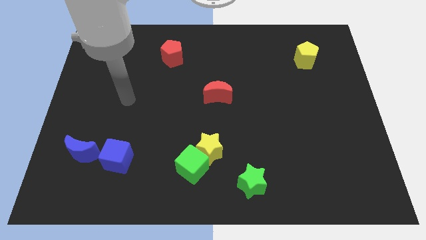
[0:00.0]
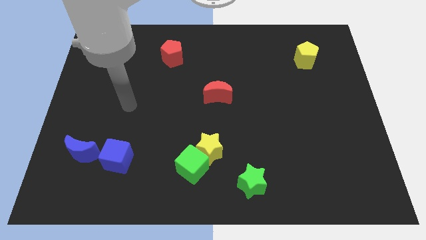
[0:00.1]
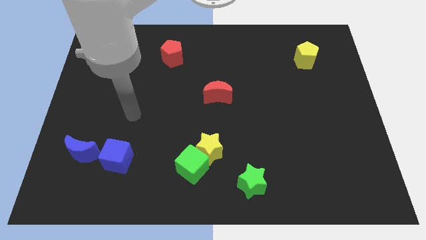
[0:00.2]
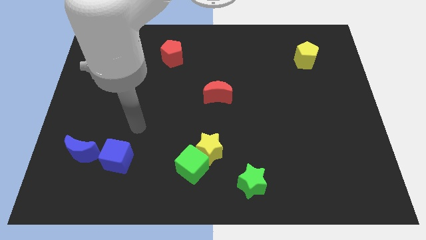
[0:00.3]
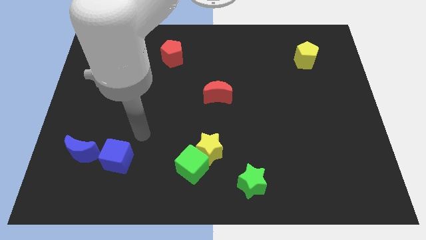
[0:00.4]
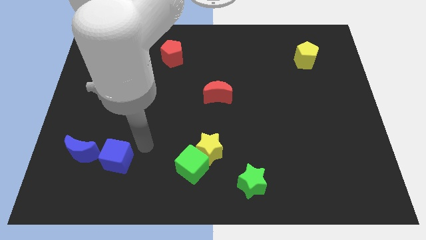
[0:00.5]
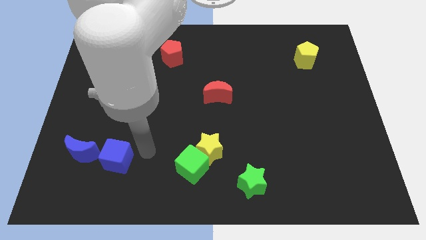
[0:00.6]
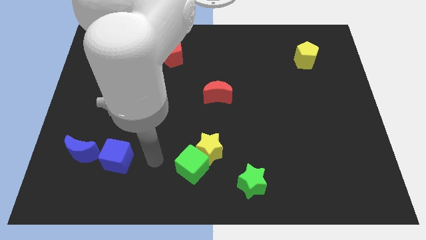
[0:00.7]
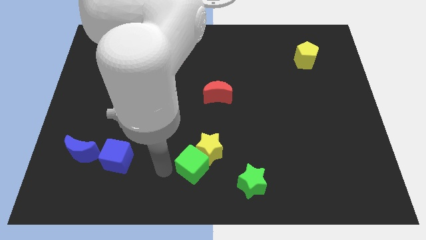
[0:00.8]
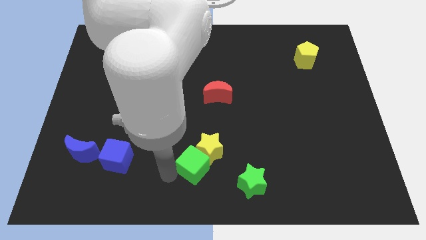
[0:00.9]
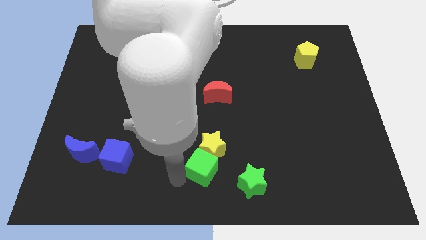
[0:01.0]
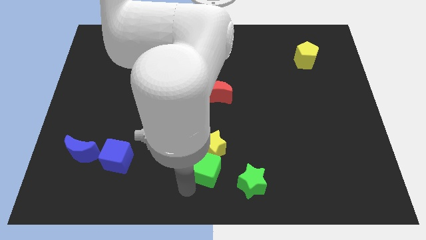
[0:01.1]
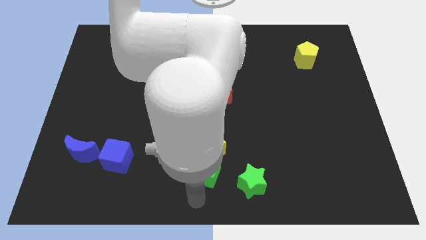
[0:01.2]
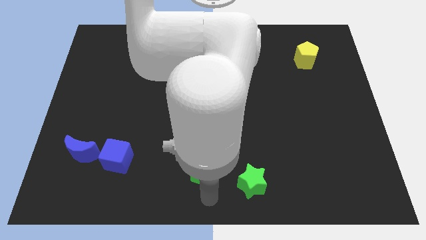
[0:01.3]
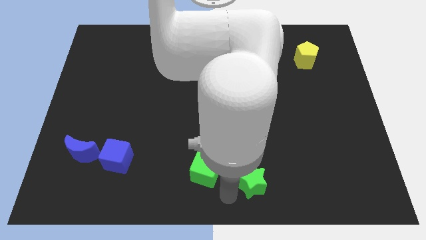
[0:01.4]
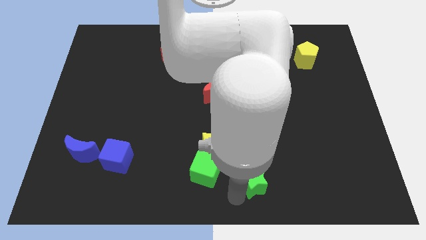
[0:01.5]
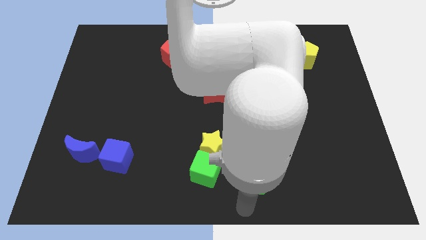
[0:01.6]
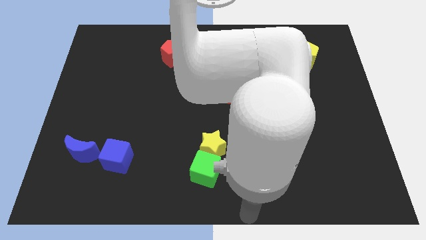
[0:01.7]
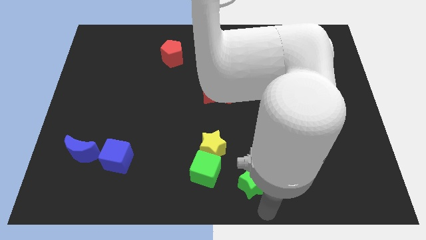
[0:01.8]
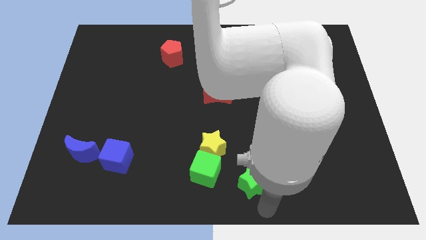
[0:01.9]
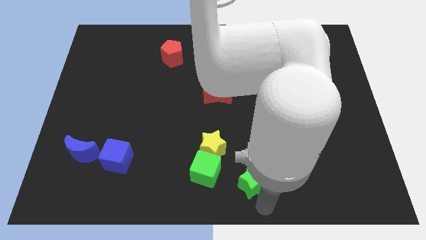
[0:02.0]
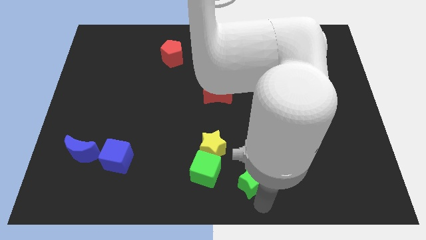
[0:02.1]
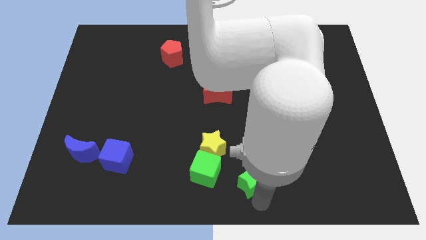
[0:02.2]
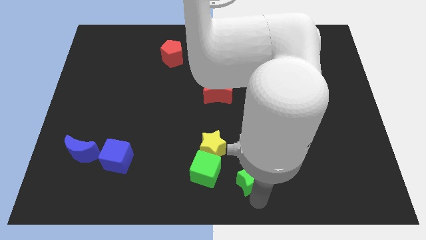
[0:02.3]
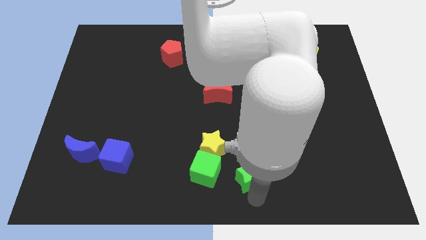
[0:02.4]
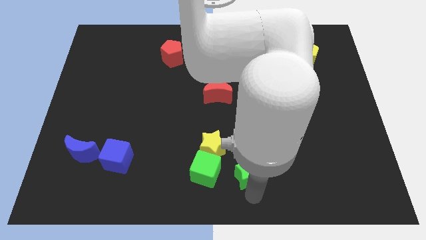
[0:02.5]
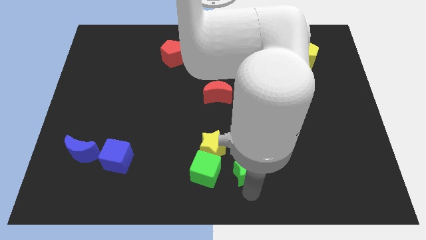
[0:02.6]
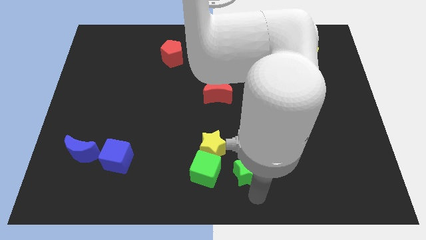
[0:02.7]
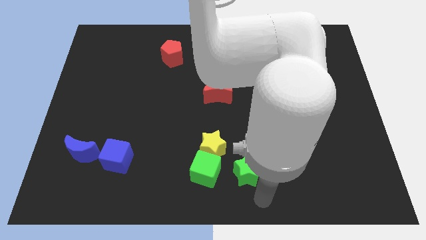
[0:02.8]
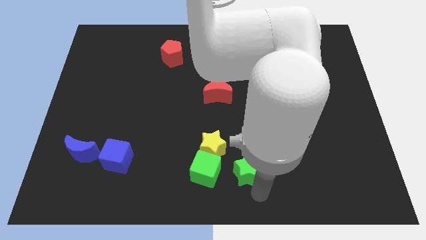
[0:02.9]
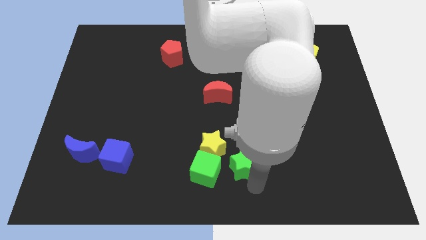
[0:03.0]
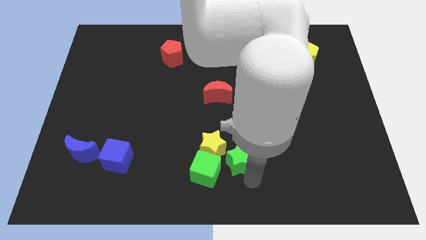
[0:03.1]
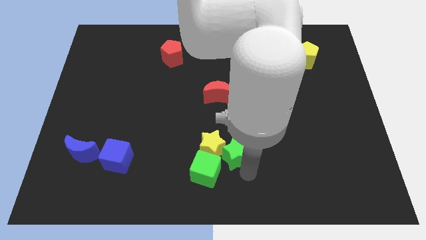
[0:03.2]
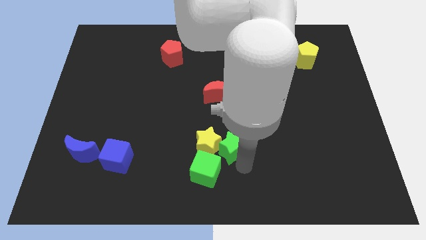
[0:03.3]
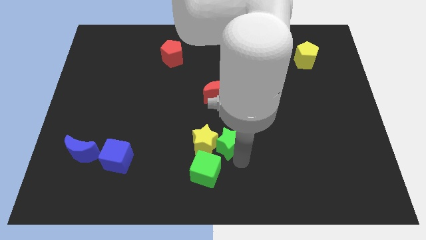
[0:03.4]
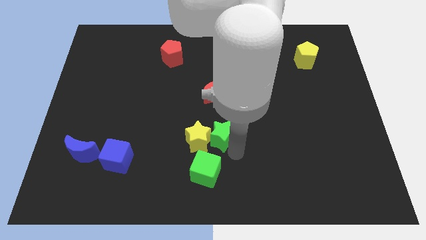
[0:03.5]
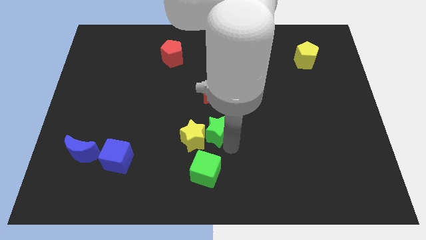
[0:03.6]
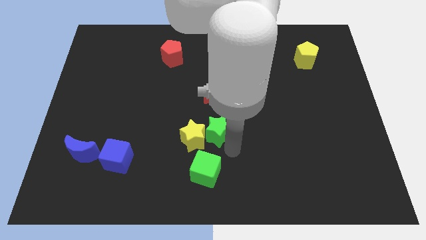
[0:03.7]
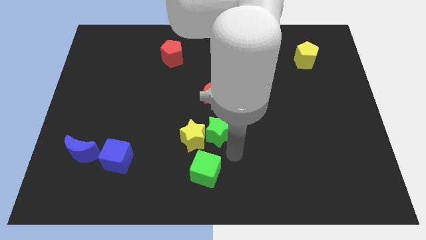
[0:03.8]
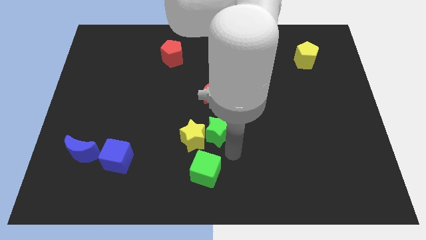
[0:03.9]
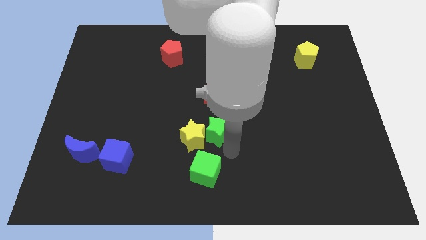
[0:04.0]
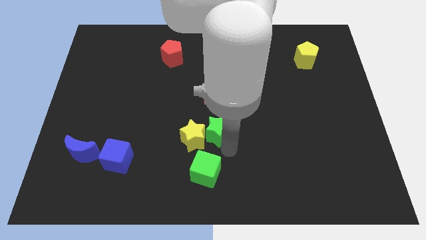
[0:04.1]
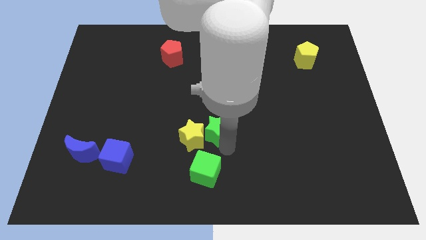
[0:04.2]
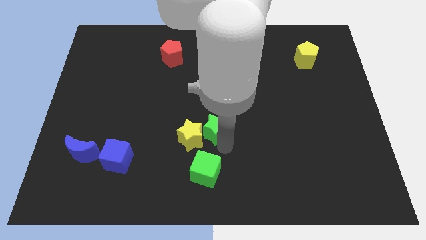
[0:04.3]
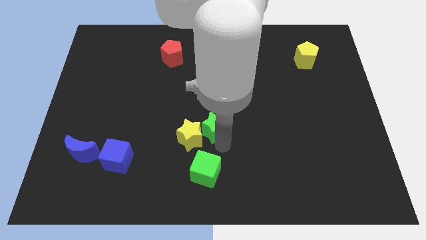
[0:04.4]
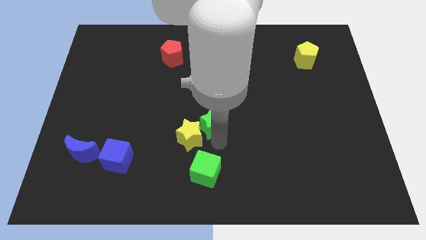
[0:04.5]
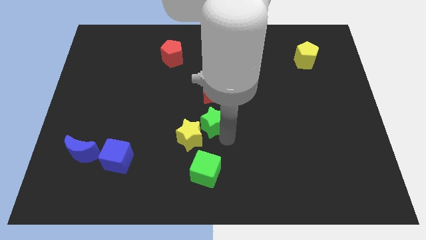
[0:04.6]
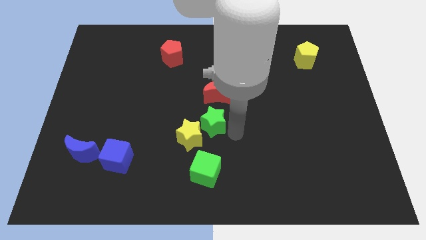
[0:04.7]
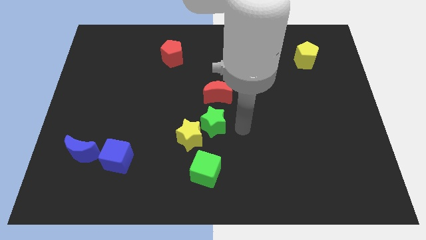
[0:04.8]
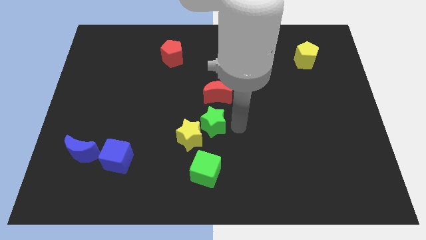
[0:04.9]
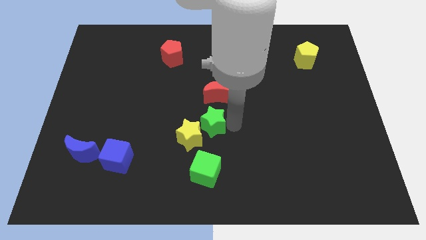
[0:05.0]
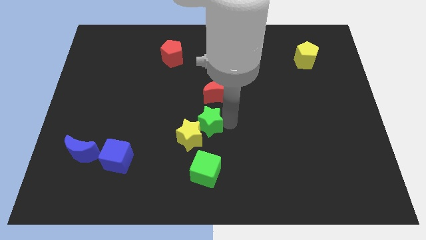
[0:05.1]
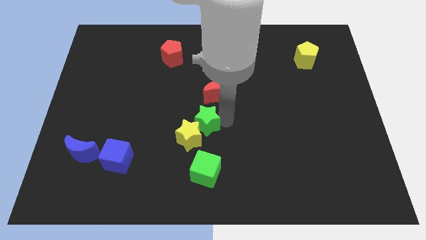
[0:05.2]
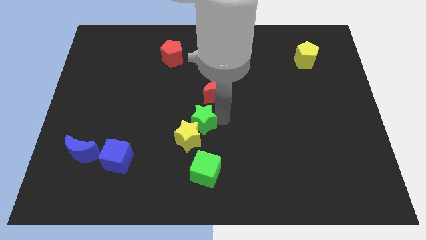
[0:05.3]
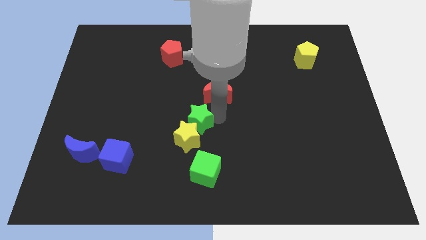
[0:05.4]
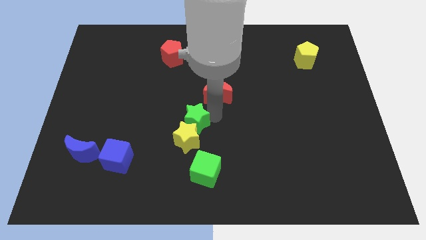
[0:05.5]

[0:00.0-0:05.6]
push the green star to the top left side of the yellow star

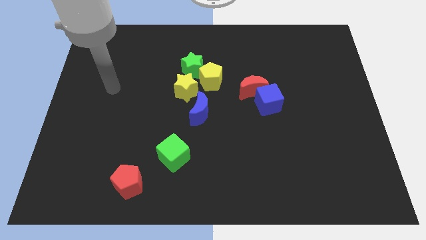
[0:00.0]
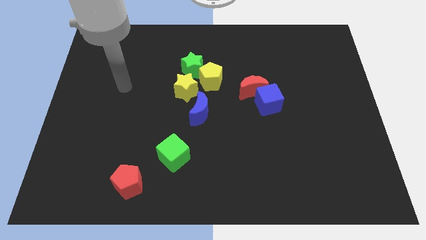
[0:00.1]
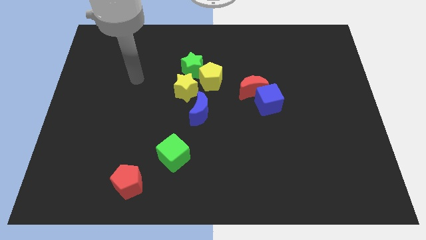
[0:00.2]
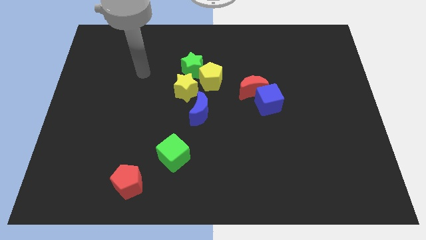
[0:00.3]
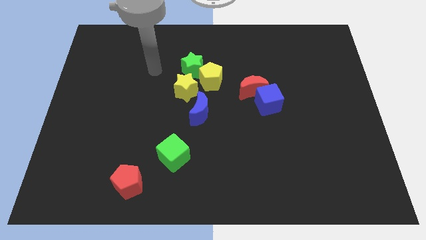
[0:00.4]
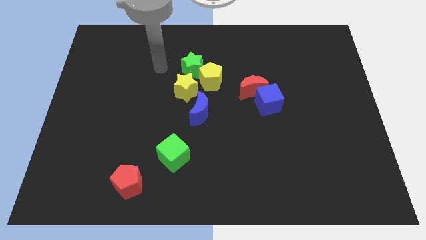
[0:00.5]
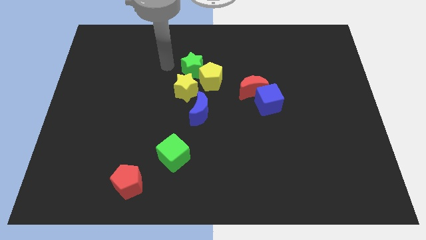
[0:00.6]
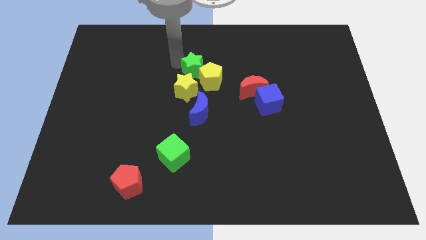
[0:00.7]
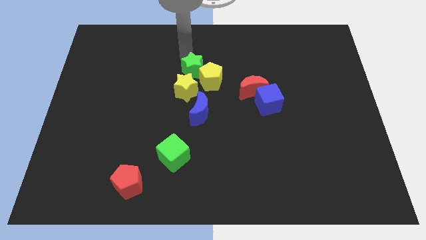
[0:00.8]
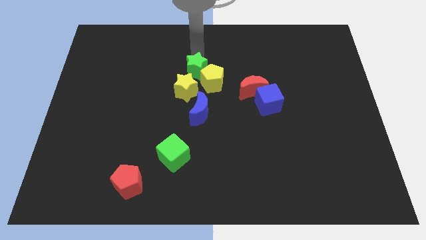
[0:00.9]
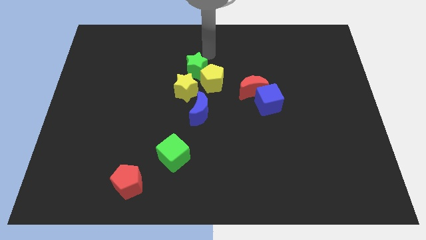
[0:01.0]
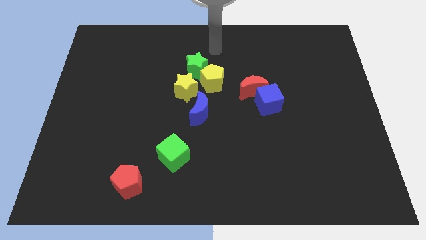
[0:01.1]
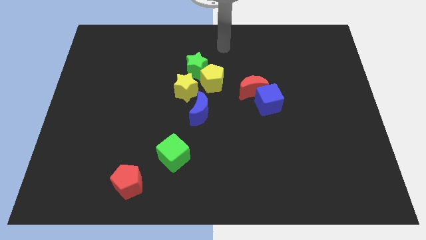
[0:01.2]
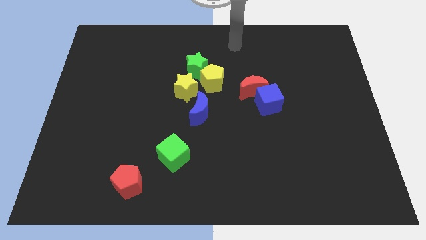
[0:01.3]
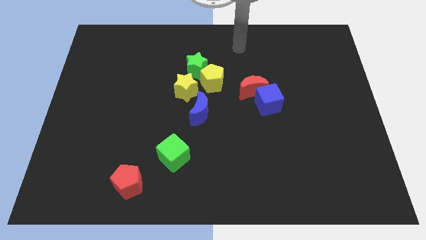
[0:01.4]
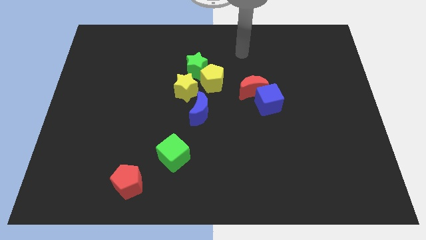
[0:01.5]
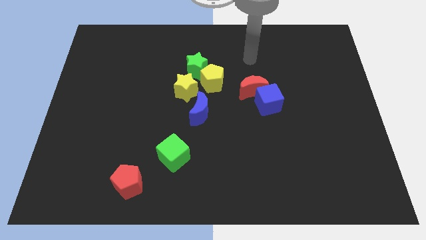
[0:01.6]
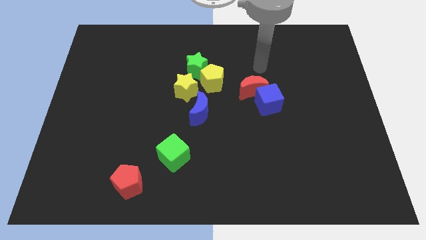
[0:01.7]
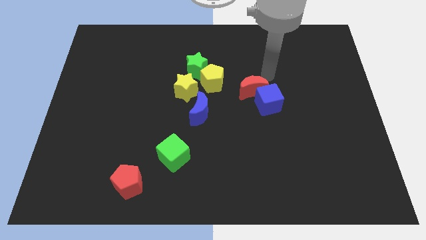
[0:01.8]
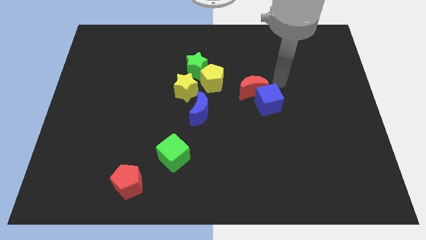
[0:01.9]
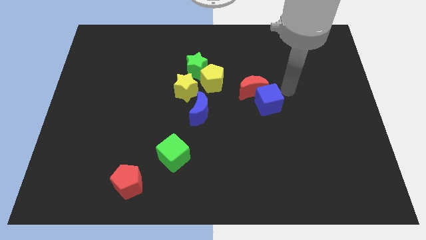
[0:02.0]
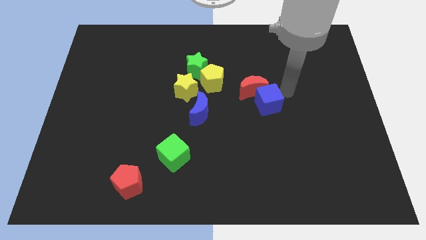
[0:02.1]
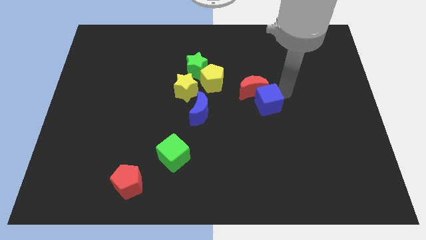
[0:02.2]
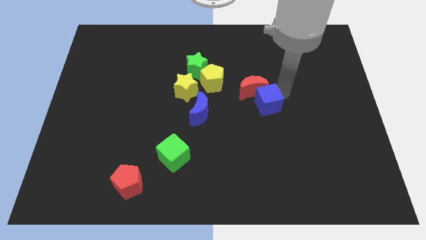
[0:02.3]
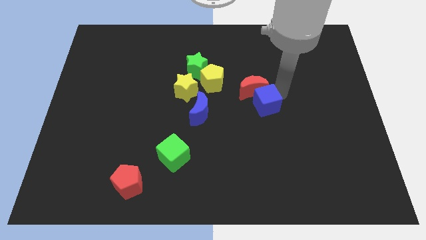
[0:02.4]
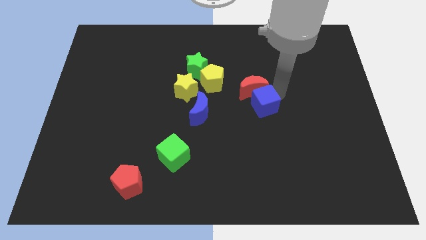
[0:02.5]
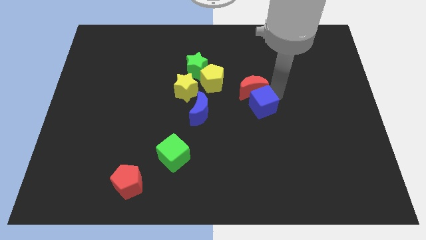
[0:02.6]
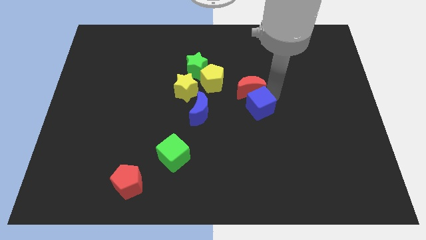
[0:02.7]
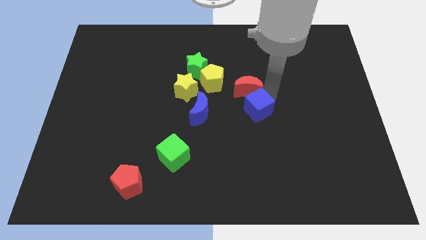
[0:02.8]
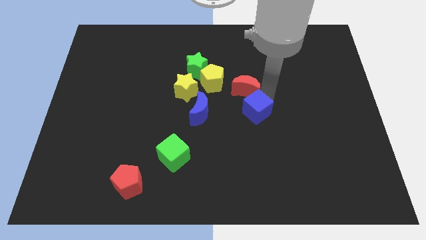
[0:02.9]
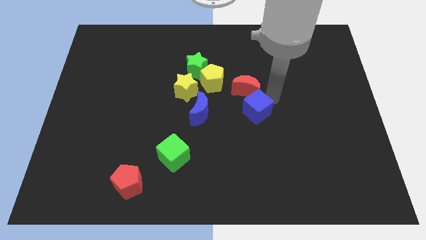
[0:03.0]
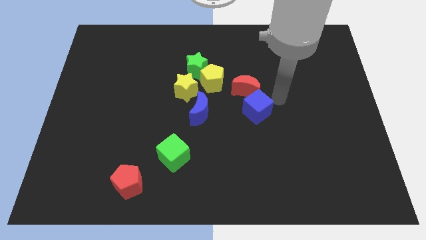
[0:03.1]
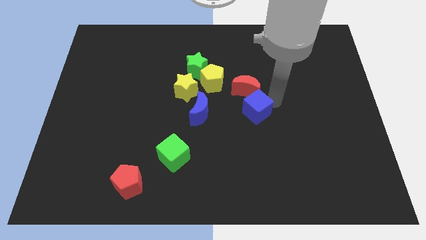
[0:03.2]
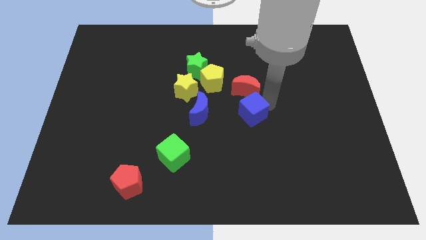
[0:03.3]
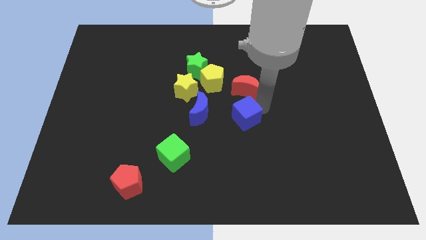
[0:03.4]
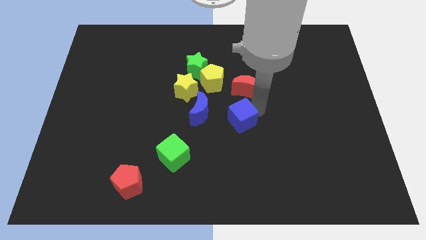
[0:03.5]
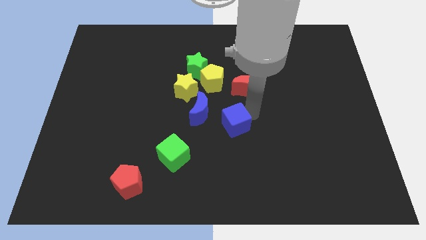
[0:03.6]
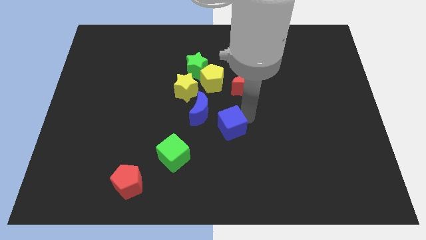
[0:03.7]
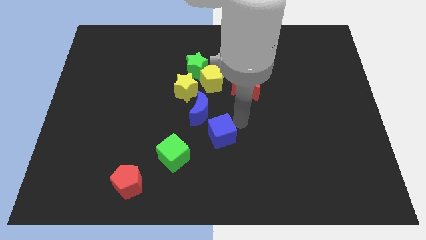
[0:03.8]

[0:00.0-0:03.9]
push the blue cube diagonally up and to the right of the green cube
